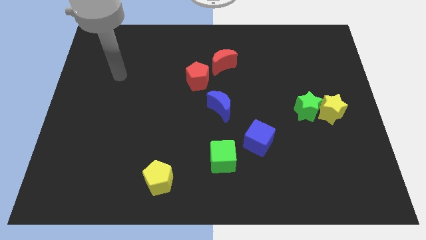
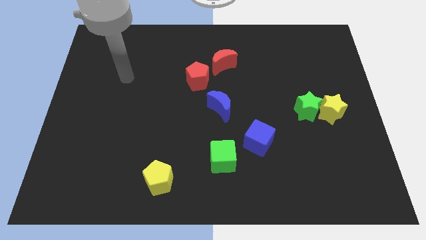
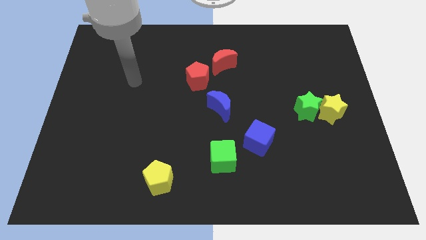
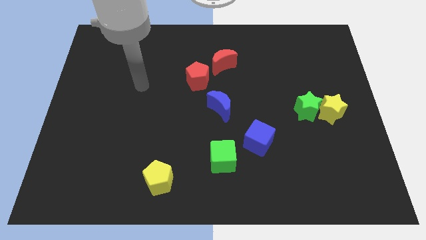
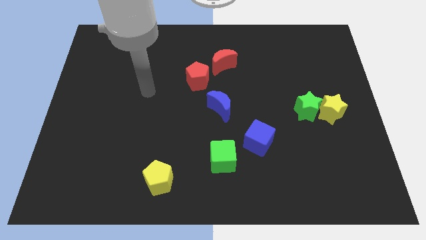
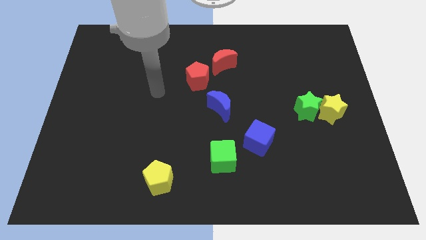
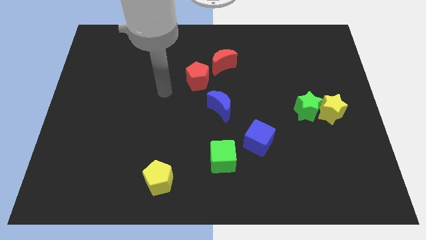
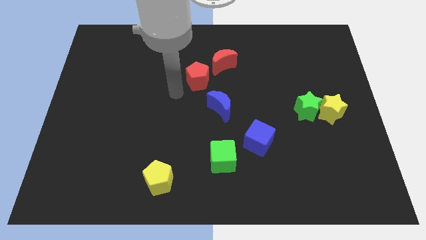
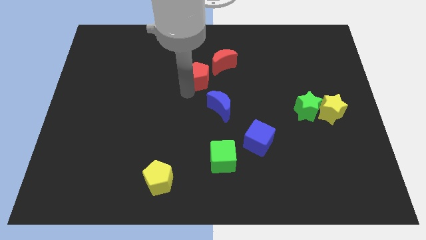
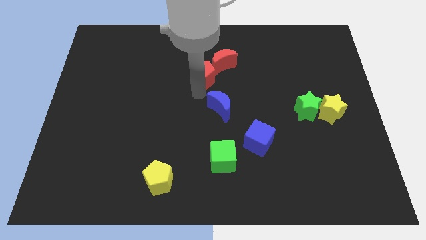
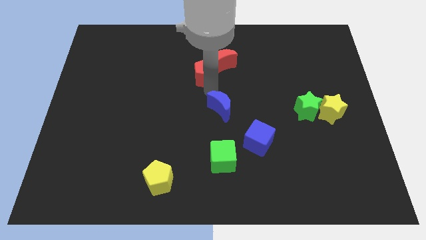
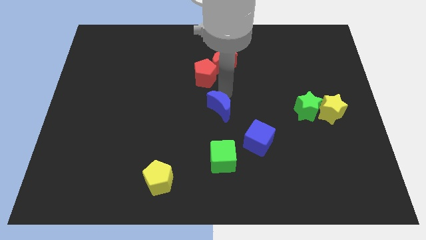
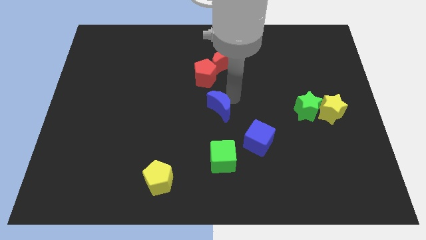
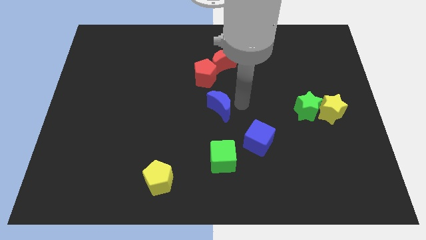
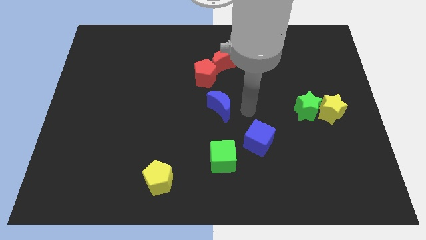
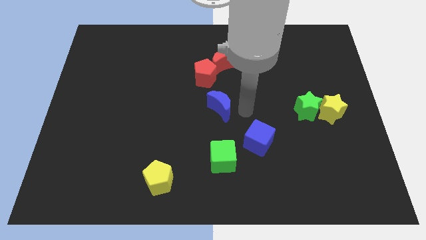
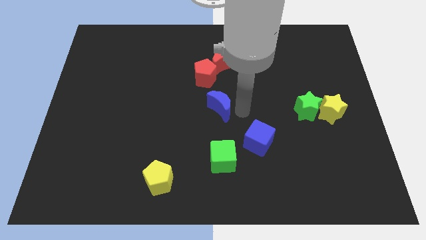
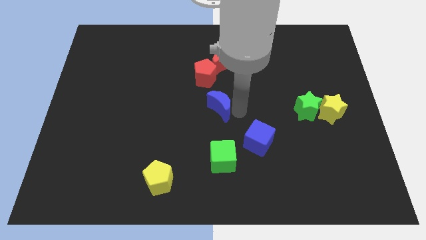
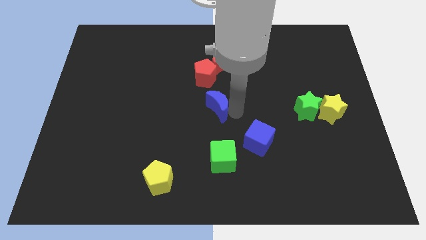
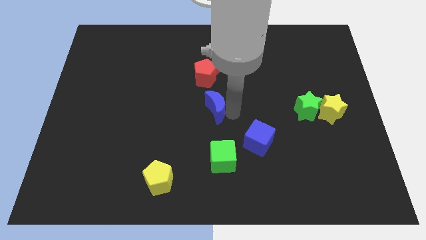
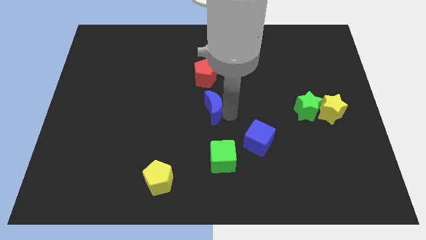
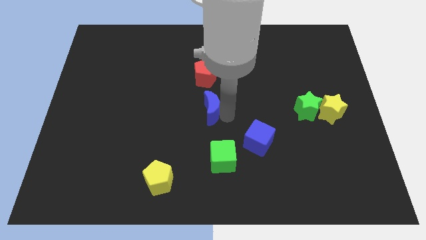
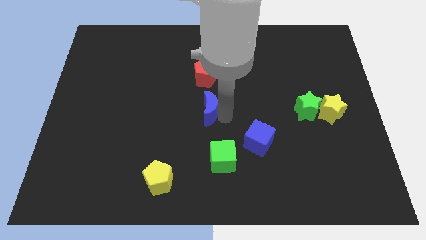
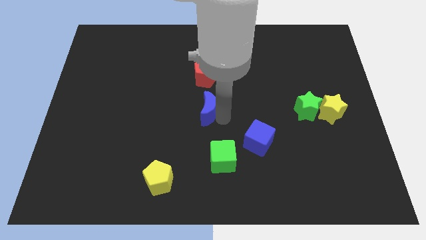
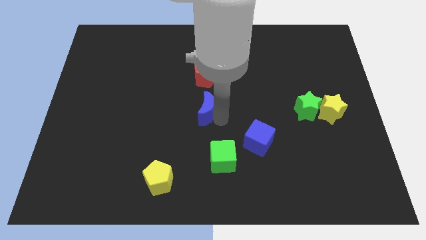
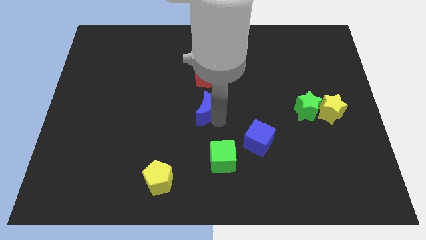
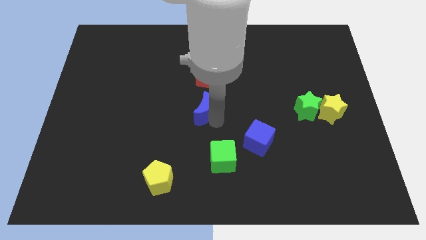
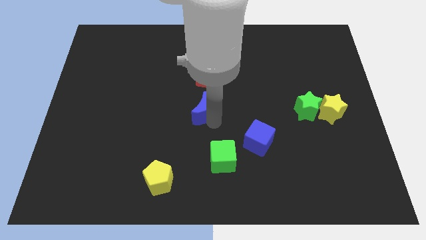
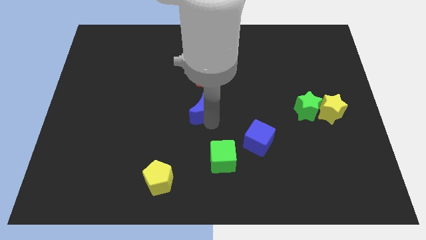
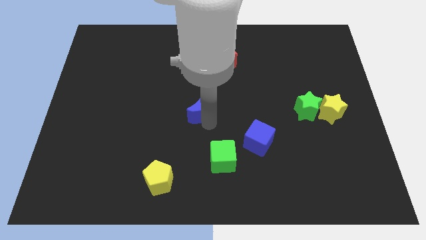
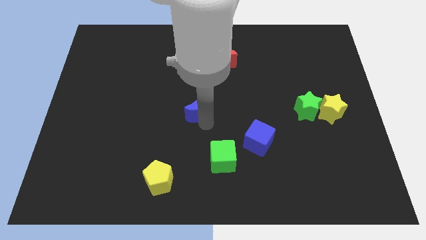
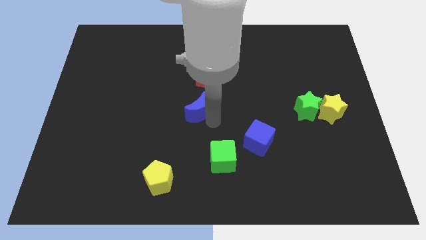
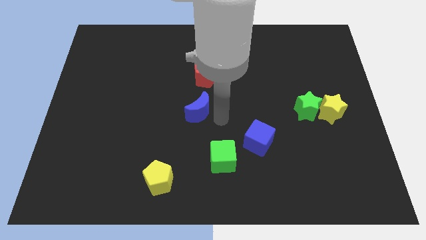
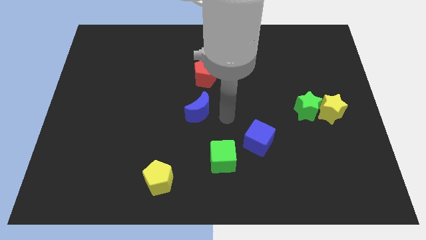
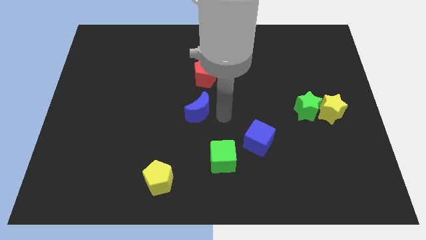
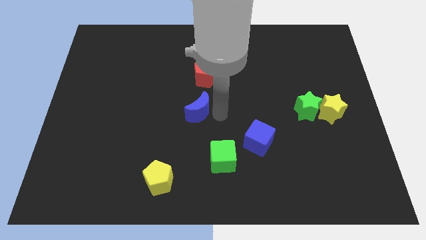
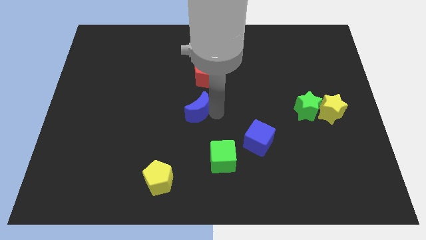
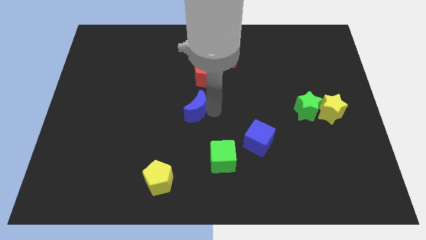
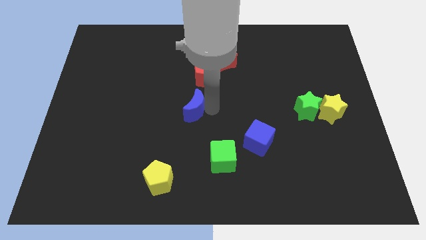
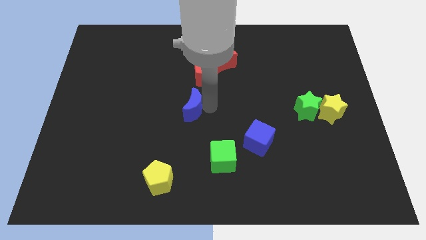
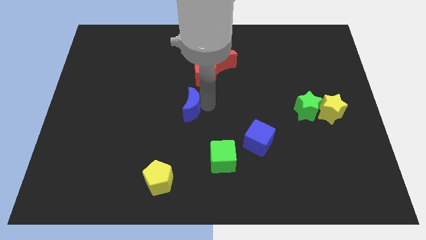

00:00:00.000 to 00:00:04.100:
slide the blue moon a little to the left

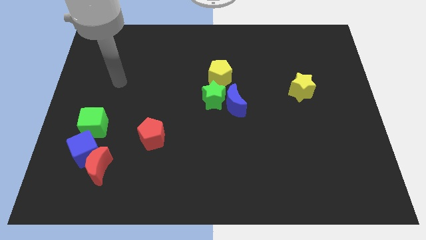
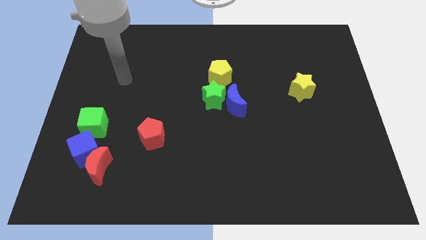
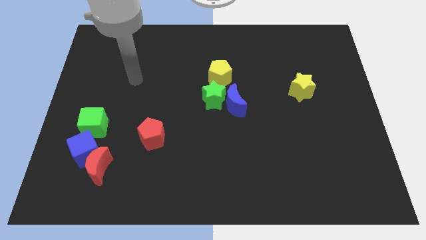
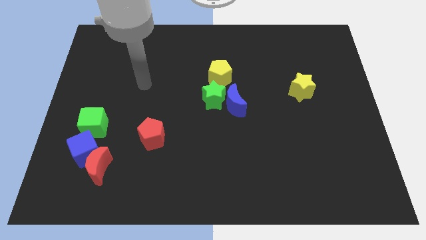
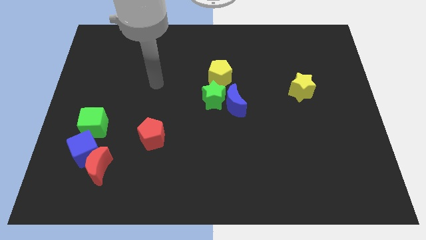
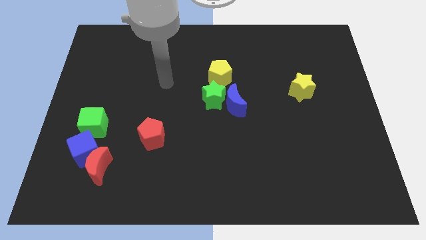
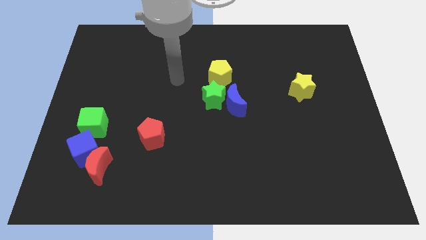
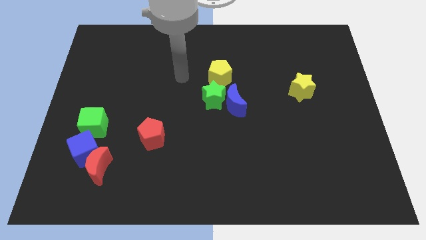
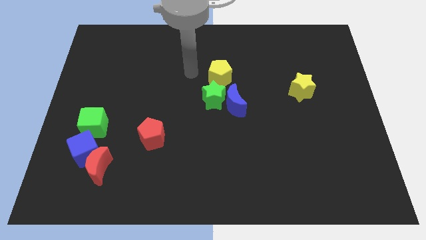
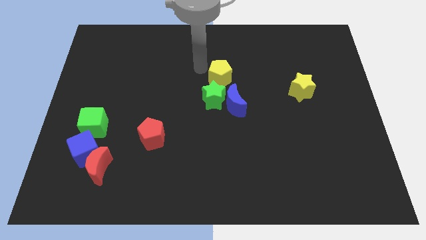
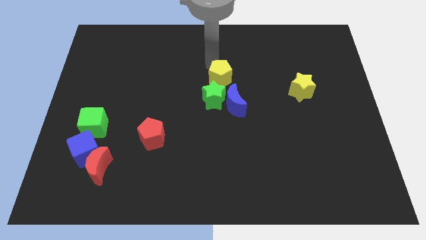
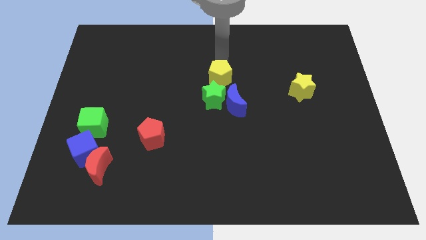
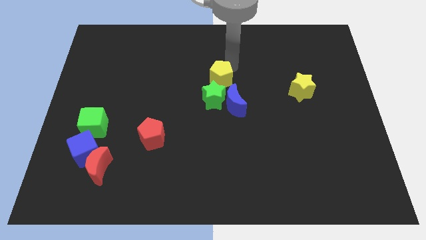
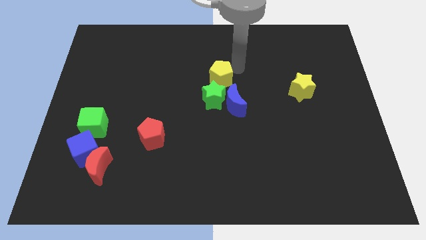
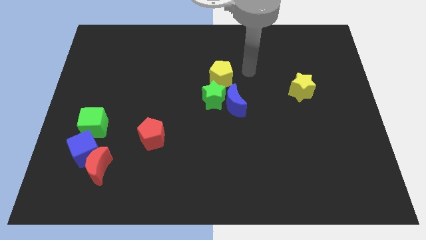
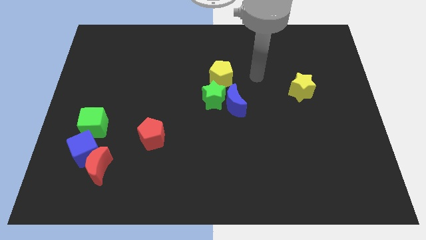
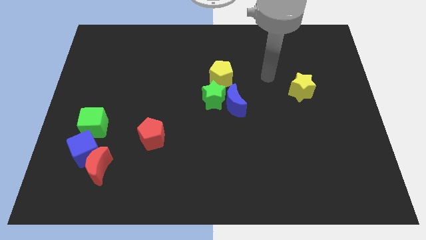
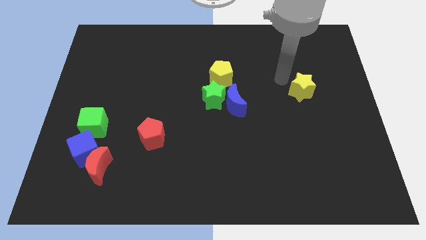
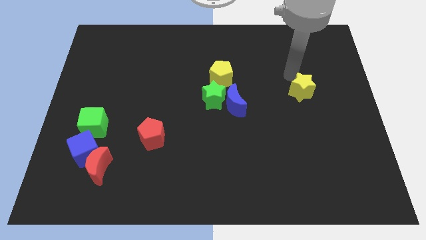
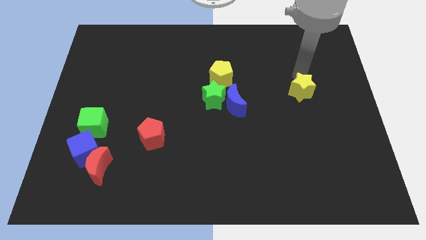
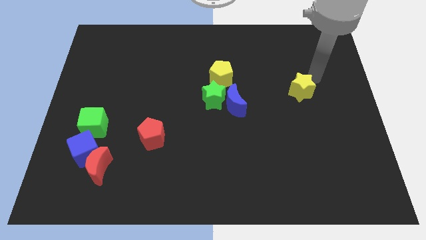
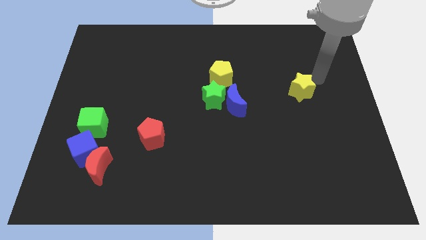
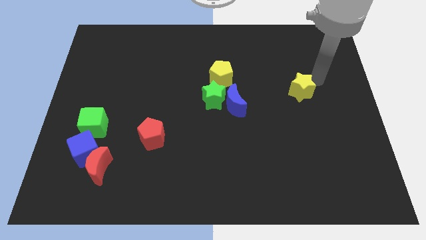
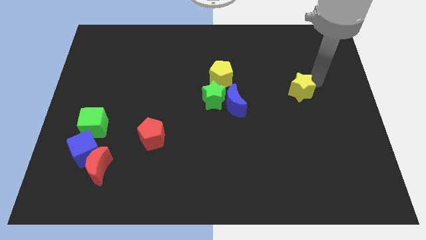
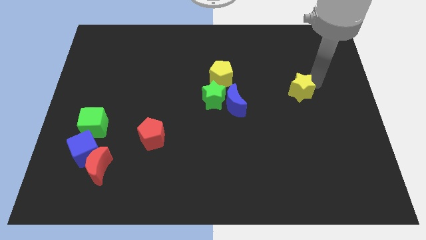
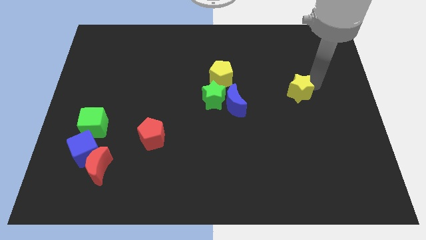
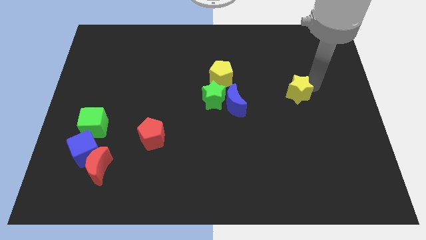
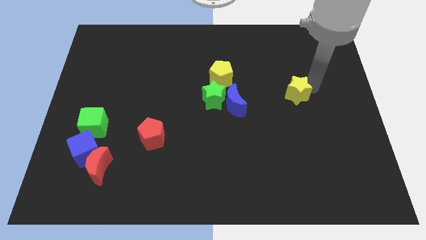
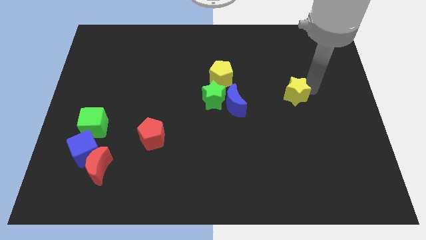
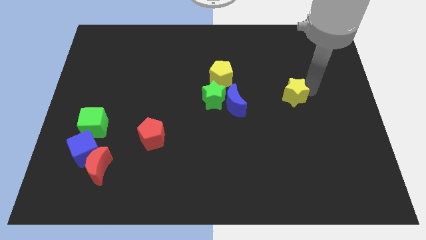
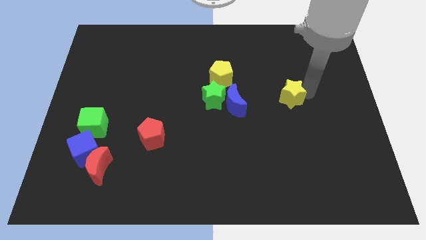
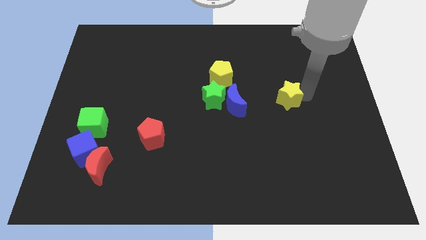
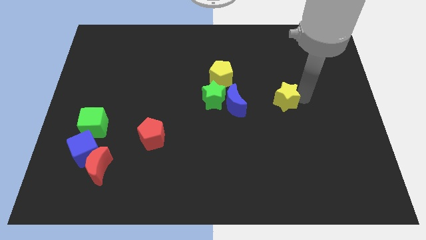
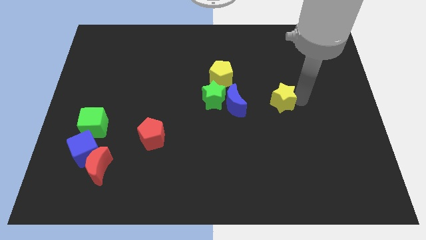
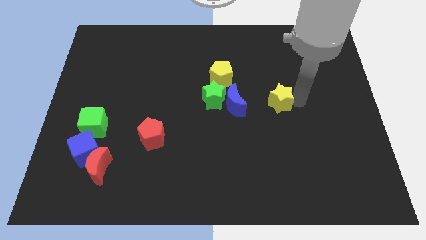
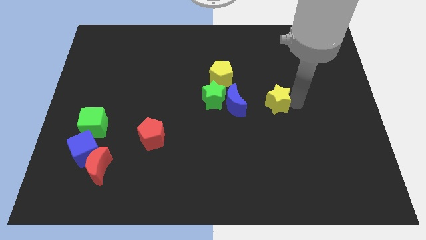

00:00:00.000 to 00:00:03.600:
slightly slide the yellow star down and then to the left

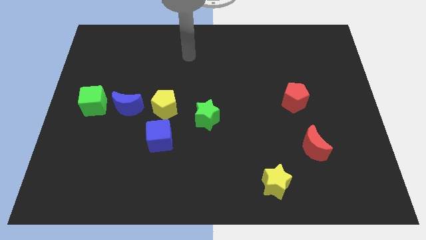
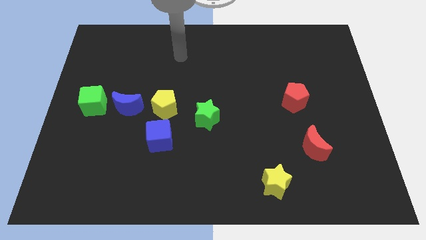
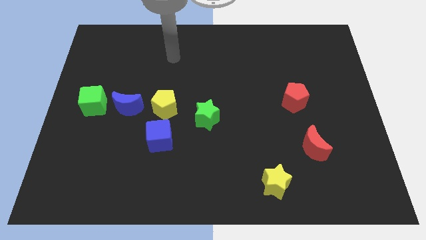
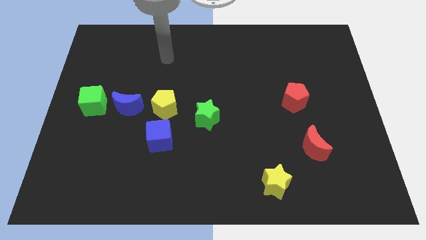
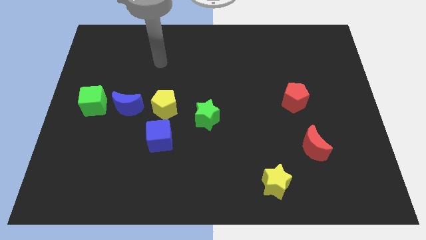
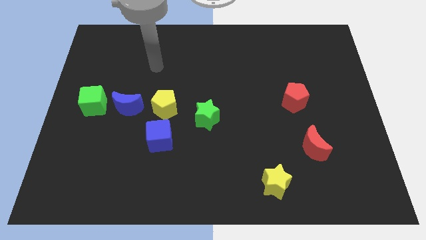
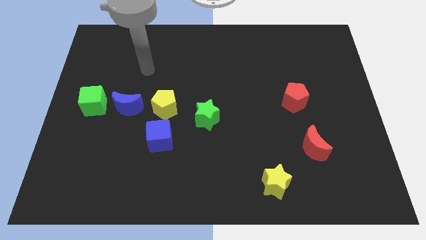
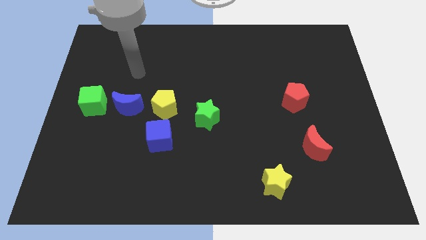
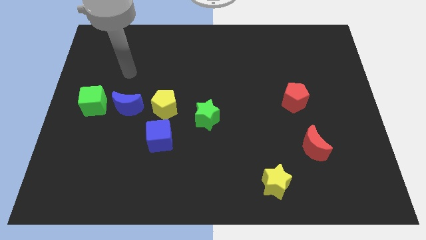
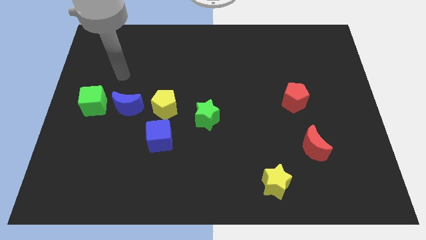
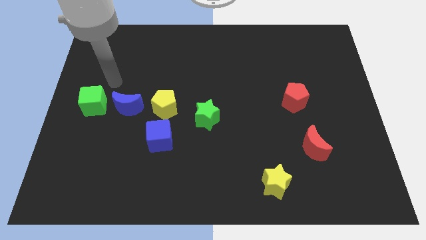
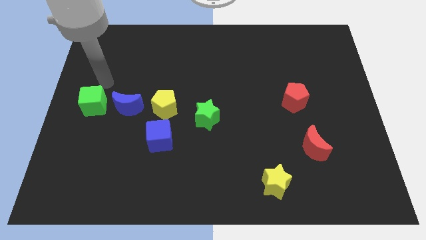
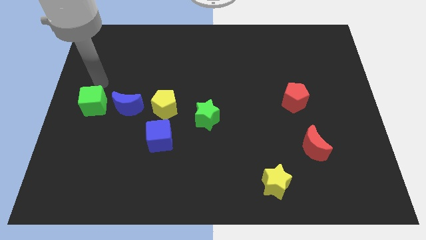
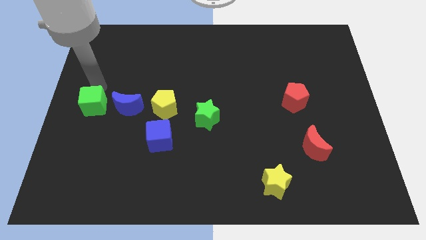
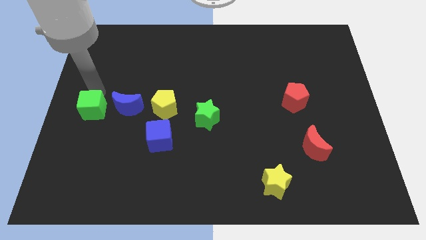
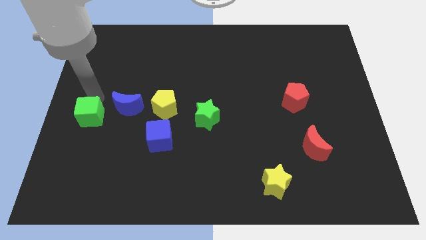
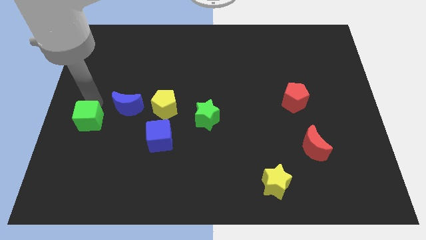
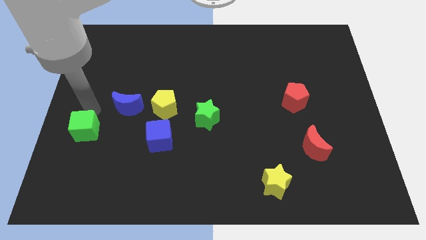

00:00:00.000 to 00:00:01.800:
slightly push the green cube down
